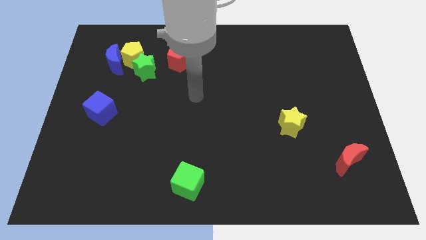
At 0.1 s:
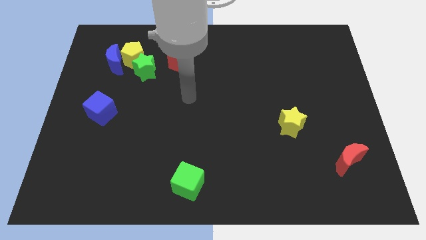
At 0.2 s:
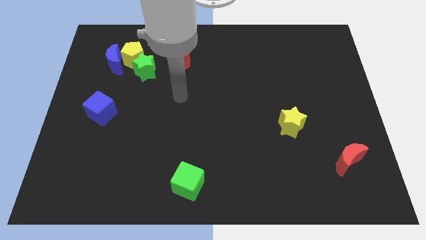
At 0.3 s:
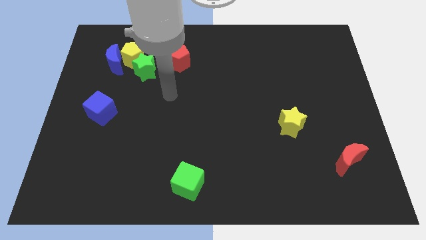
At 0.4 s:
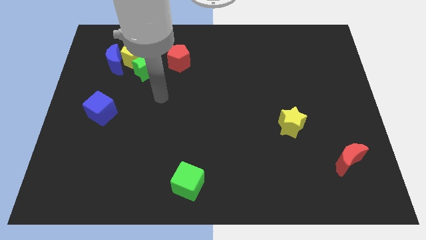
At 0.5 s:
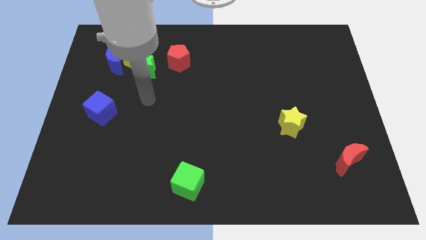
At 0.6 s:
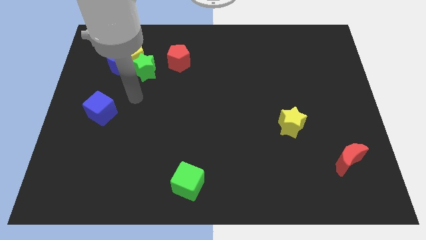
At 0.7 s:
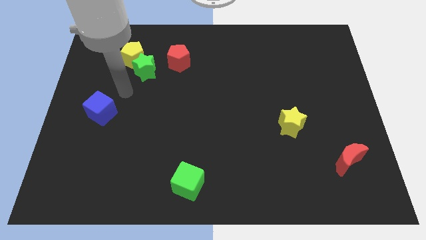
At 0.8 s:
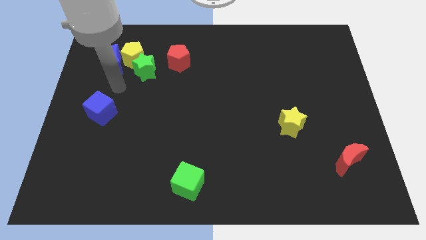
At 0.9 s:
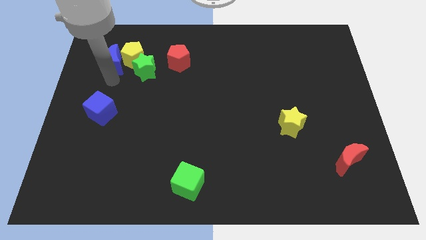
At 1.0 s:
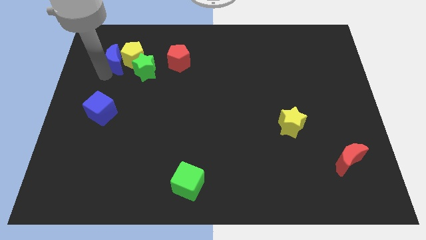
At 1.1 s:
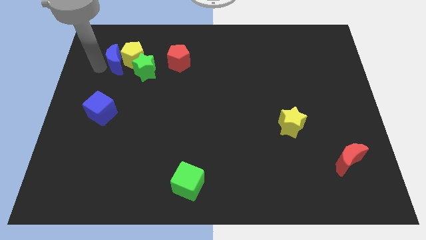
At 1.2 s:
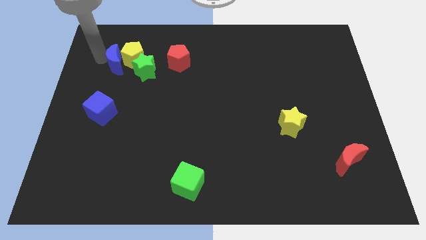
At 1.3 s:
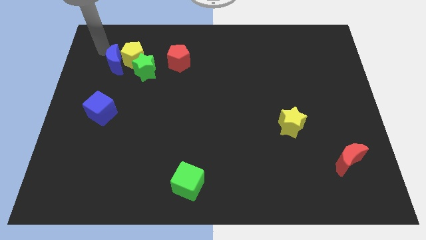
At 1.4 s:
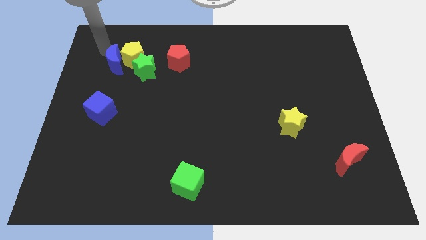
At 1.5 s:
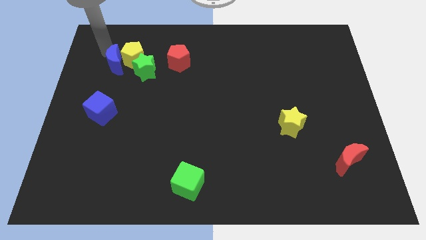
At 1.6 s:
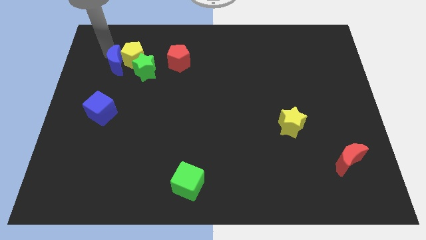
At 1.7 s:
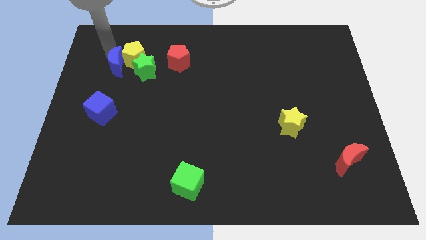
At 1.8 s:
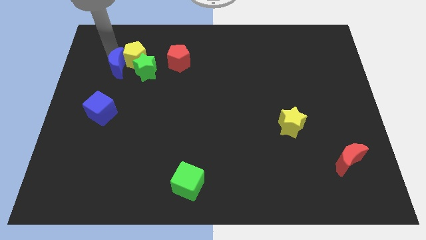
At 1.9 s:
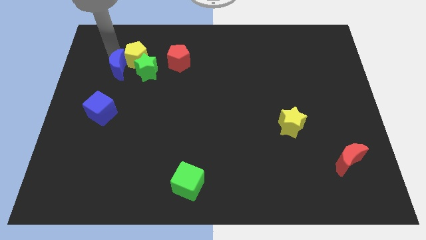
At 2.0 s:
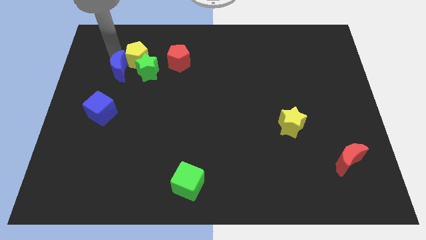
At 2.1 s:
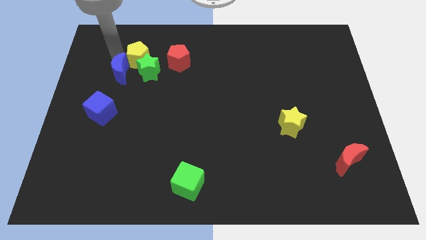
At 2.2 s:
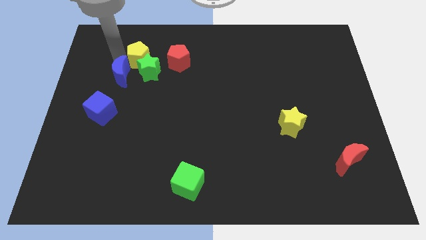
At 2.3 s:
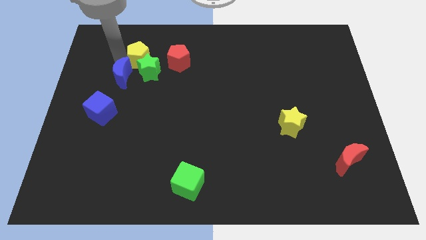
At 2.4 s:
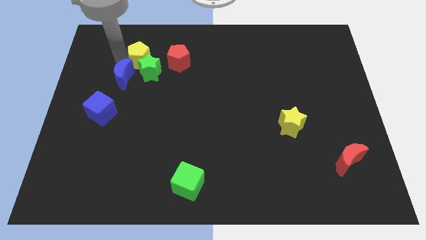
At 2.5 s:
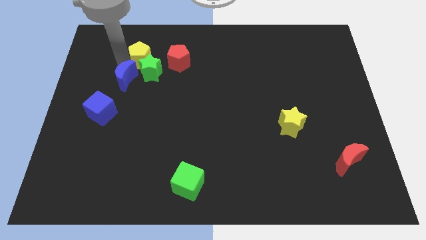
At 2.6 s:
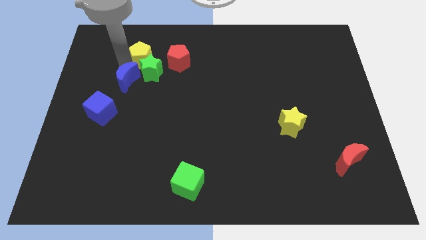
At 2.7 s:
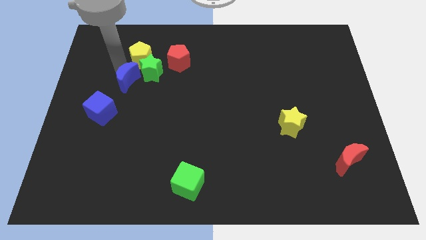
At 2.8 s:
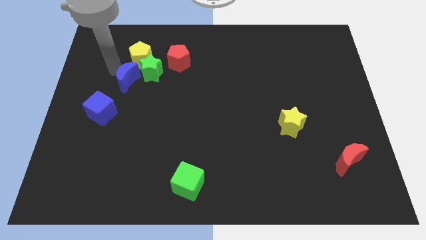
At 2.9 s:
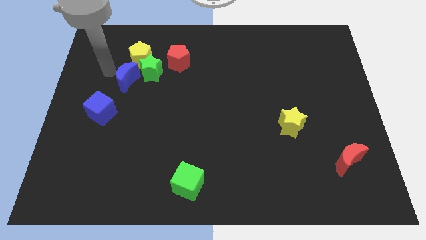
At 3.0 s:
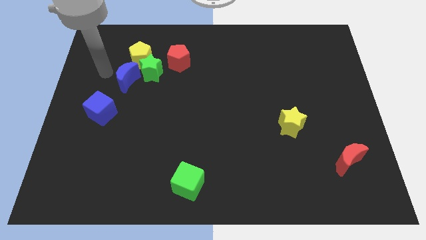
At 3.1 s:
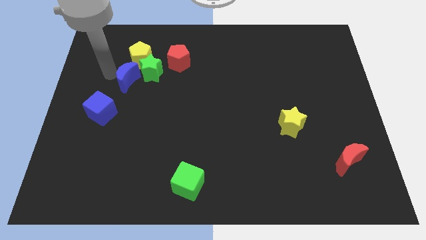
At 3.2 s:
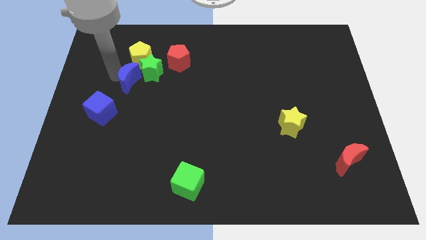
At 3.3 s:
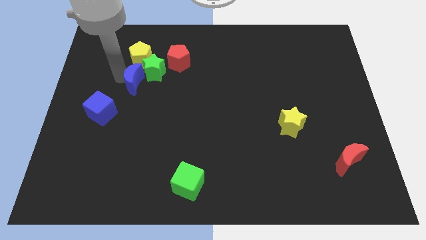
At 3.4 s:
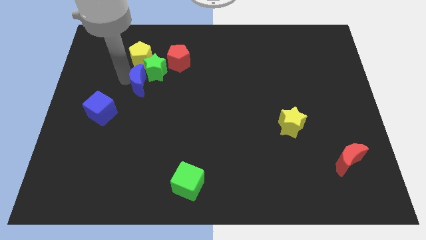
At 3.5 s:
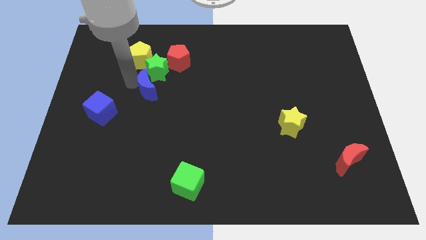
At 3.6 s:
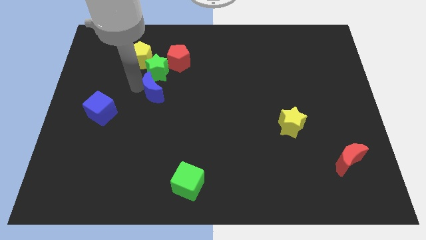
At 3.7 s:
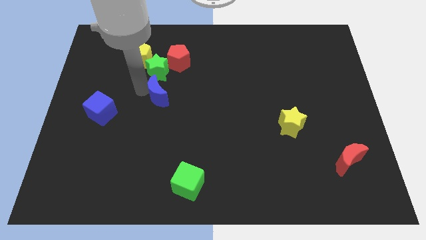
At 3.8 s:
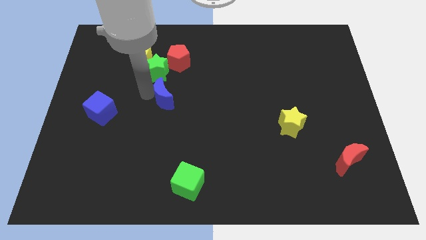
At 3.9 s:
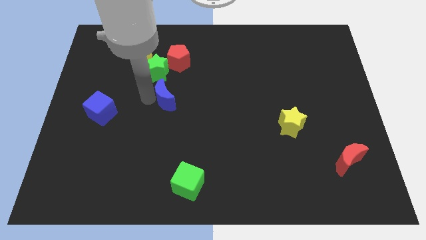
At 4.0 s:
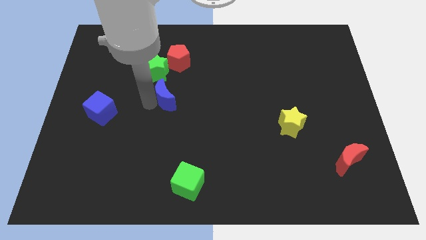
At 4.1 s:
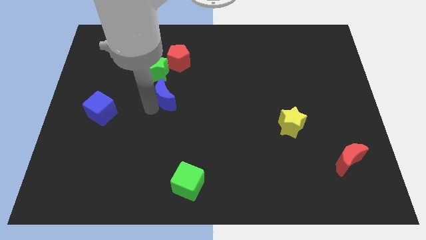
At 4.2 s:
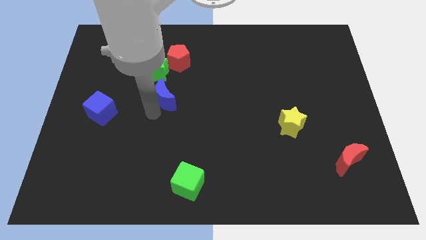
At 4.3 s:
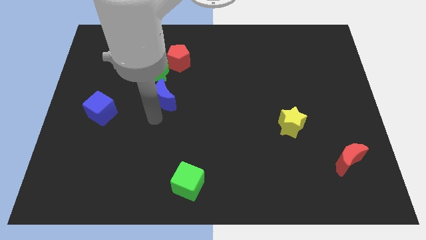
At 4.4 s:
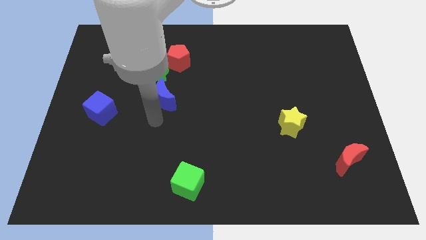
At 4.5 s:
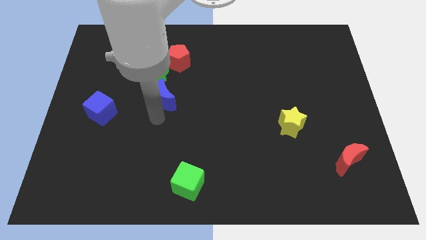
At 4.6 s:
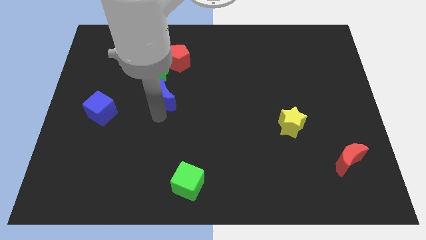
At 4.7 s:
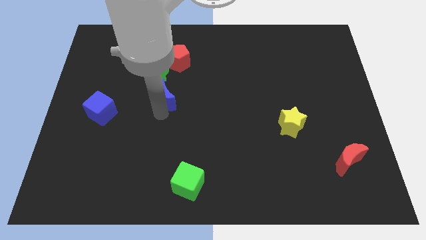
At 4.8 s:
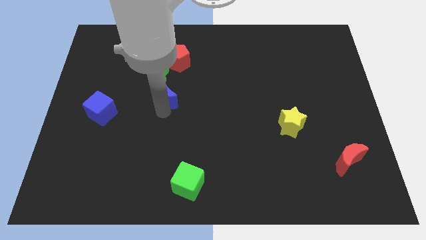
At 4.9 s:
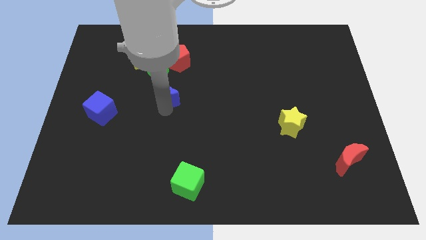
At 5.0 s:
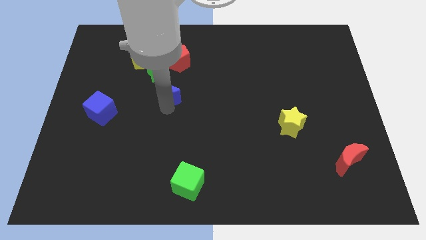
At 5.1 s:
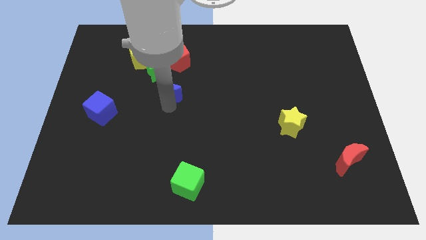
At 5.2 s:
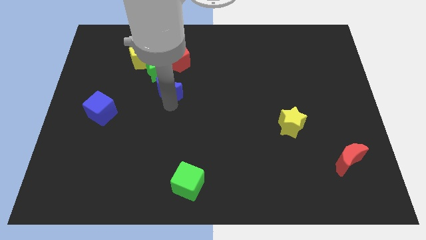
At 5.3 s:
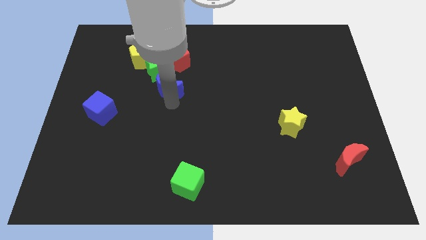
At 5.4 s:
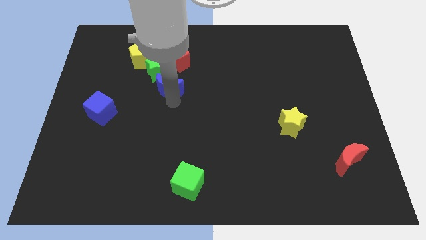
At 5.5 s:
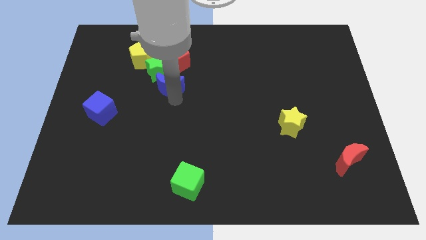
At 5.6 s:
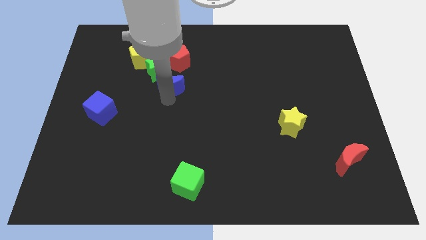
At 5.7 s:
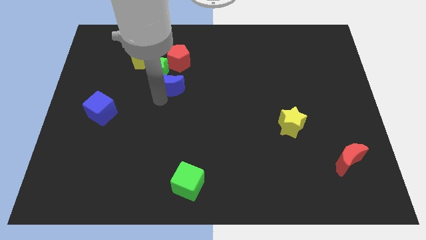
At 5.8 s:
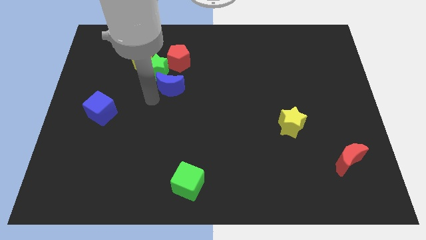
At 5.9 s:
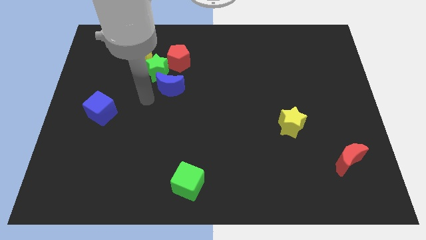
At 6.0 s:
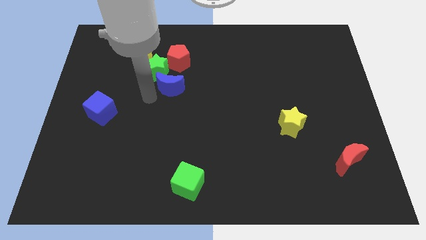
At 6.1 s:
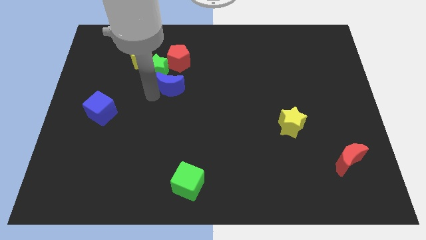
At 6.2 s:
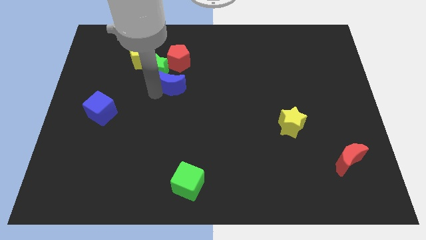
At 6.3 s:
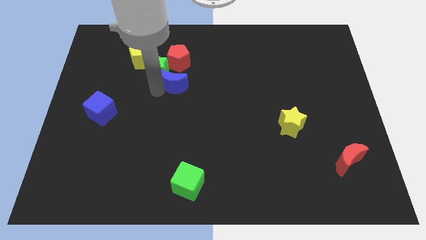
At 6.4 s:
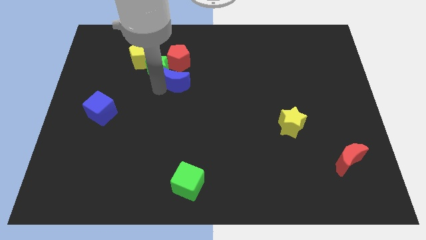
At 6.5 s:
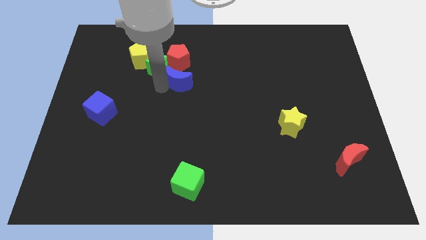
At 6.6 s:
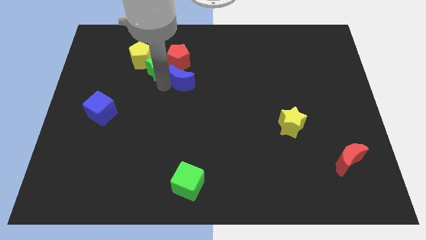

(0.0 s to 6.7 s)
push the blue moon diagonally down and to the right of the red pentagon

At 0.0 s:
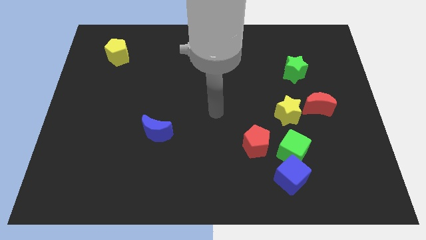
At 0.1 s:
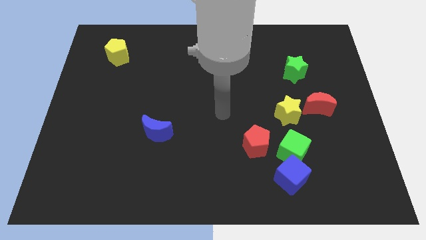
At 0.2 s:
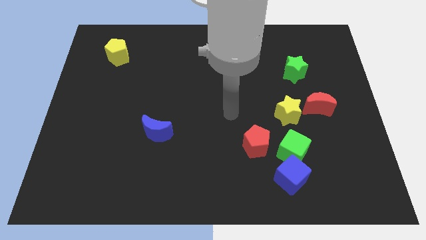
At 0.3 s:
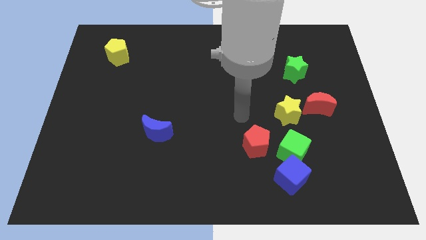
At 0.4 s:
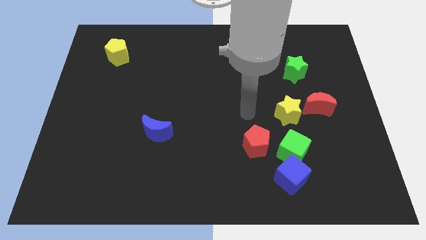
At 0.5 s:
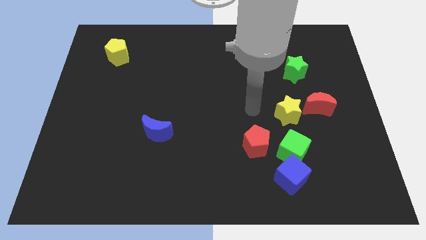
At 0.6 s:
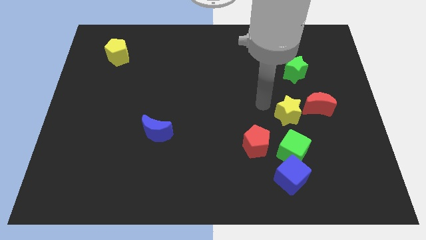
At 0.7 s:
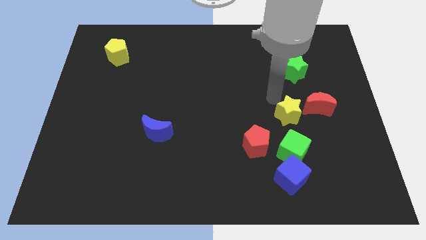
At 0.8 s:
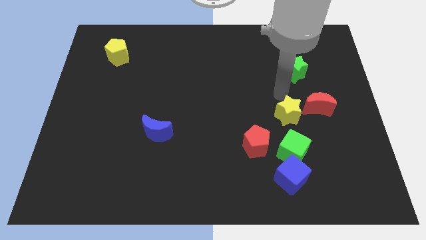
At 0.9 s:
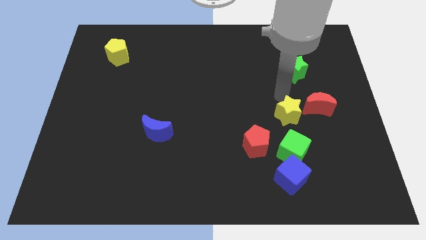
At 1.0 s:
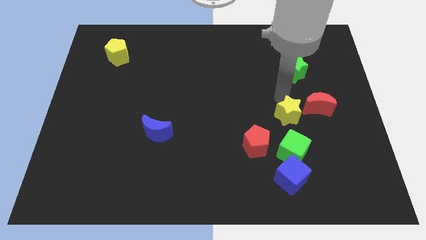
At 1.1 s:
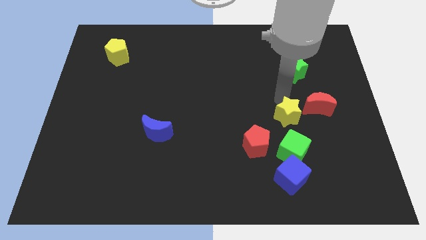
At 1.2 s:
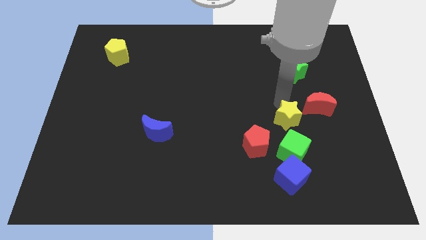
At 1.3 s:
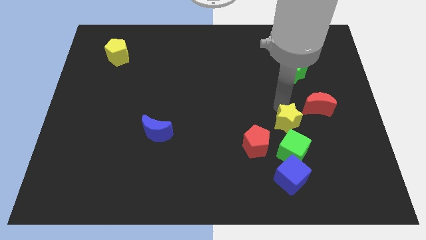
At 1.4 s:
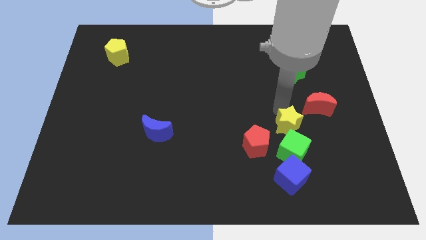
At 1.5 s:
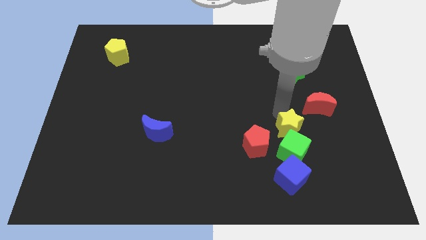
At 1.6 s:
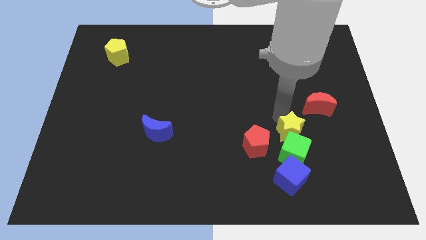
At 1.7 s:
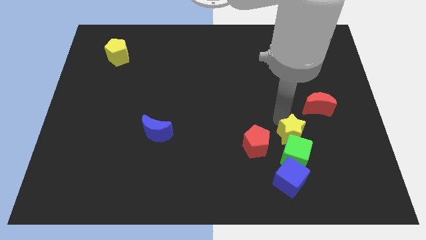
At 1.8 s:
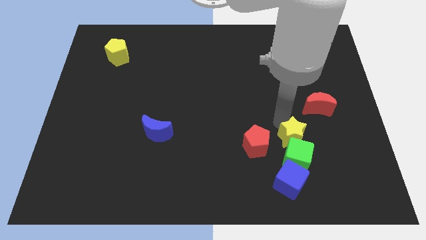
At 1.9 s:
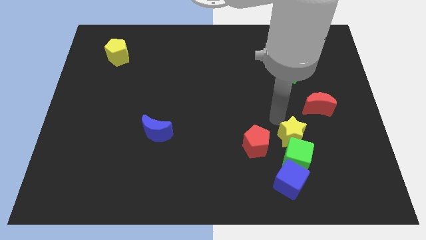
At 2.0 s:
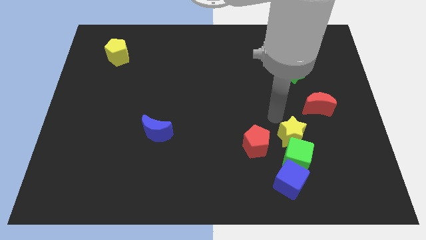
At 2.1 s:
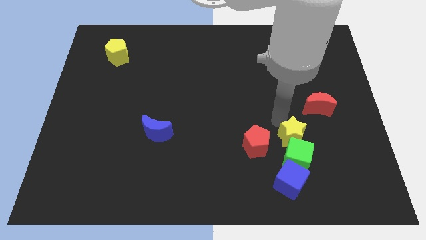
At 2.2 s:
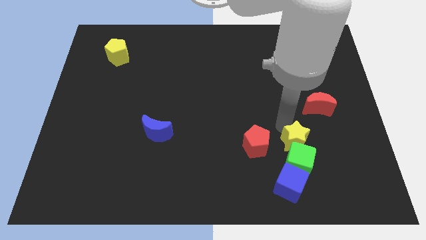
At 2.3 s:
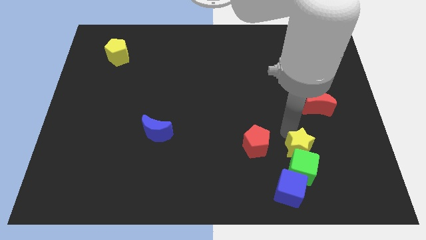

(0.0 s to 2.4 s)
move the yellow star to the top right of the blue cube
